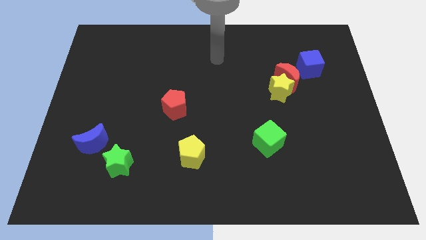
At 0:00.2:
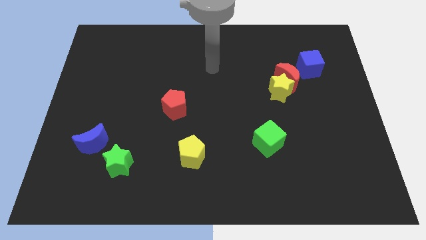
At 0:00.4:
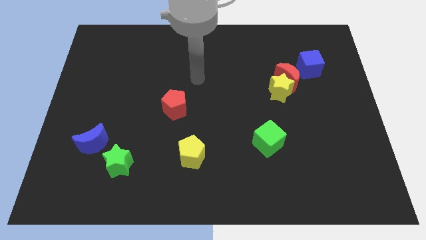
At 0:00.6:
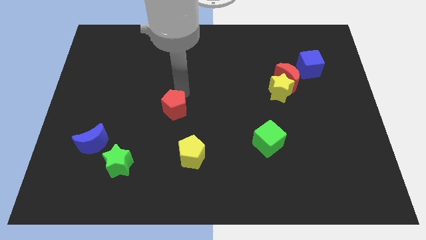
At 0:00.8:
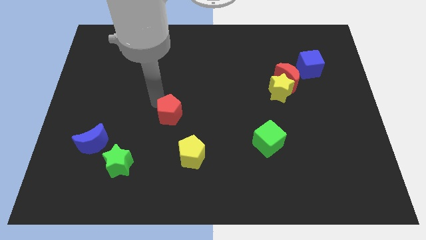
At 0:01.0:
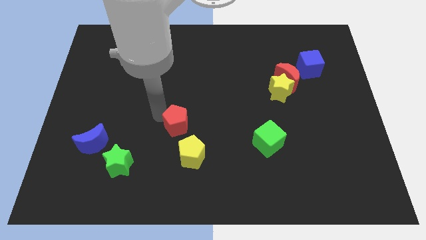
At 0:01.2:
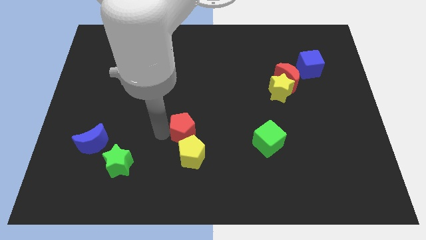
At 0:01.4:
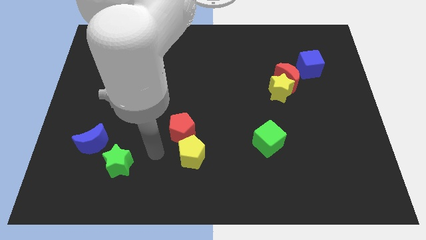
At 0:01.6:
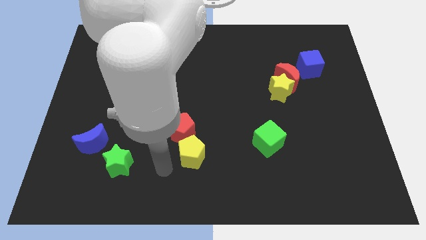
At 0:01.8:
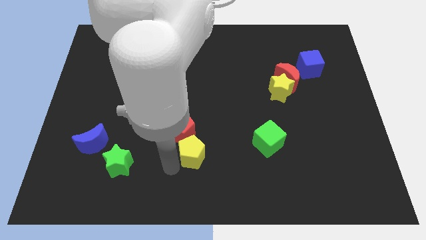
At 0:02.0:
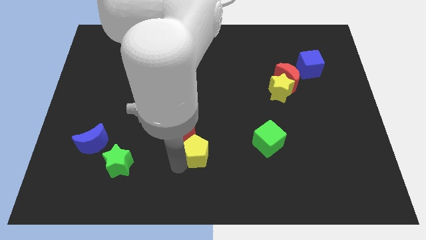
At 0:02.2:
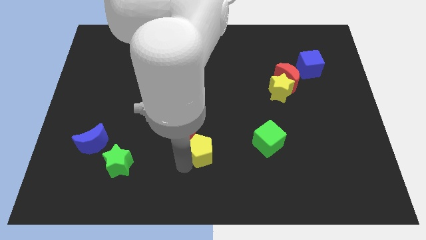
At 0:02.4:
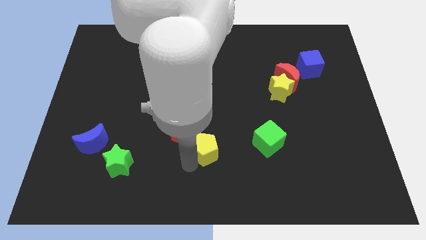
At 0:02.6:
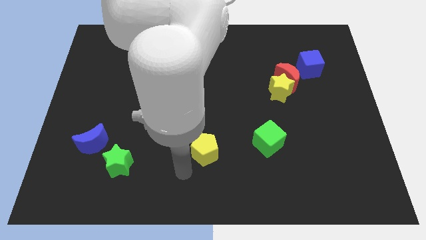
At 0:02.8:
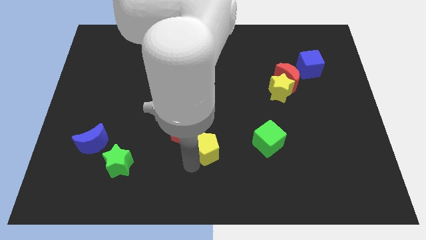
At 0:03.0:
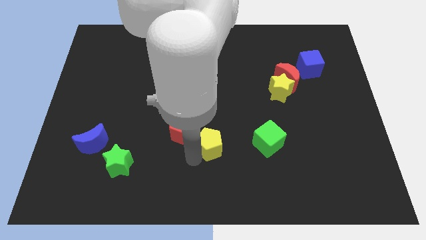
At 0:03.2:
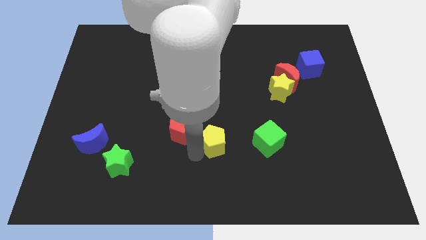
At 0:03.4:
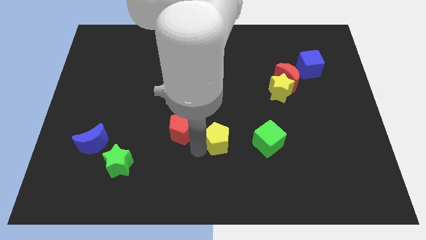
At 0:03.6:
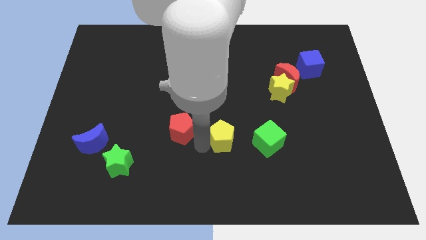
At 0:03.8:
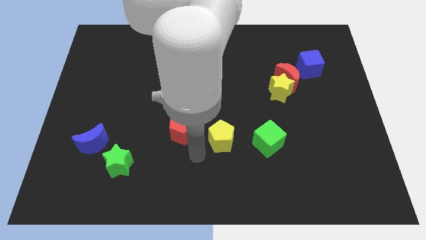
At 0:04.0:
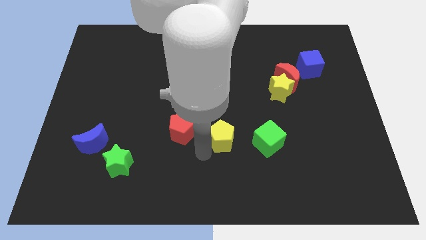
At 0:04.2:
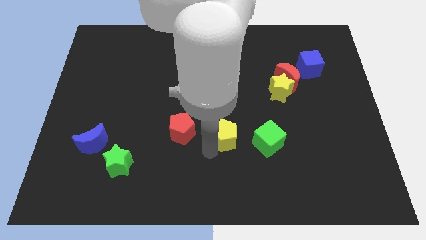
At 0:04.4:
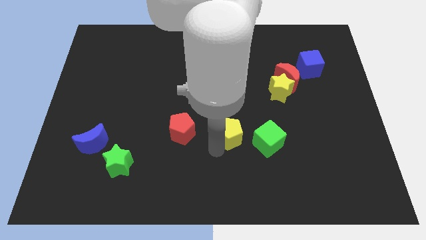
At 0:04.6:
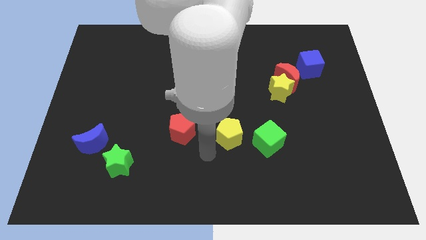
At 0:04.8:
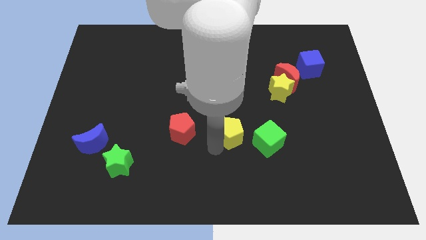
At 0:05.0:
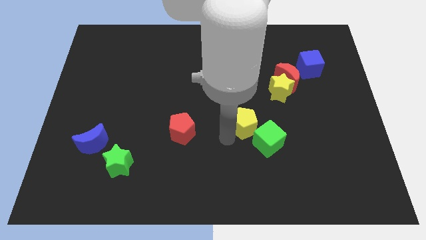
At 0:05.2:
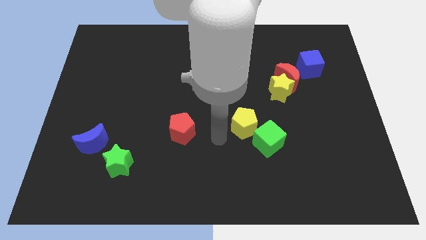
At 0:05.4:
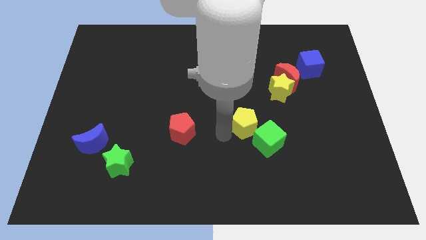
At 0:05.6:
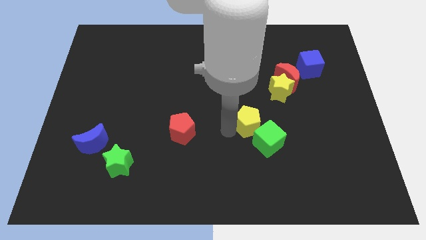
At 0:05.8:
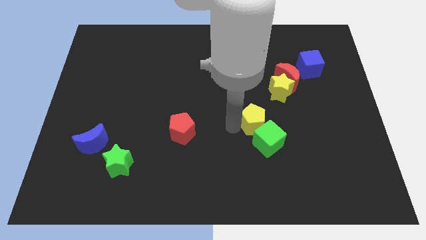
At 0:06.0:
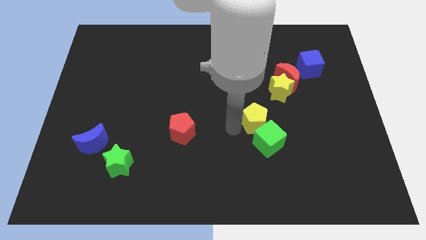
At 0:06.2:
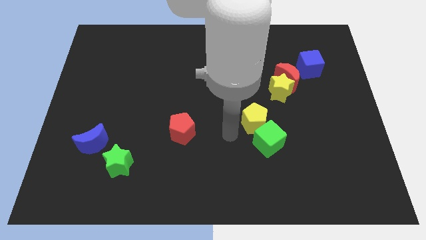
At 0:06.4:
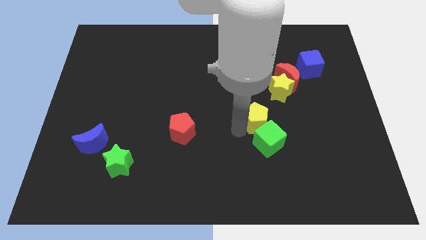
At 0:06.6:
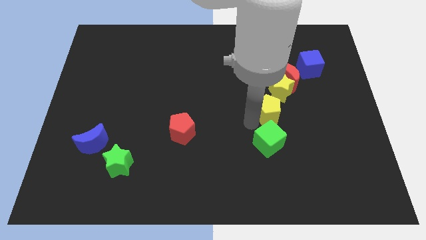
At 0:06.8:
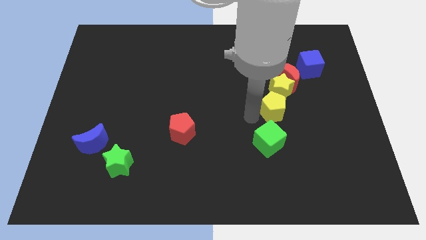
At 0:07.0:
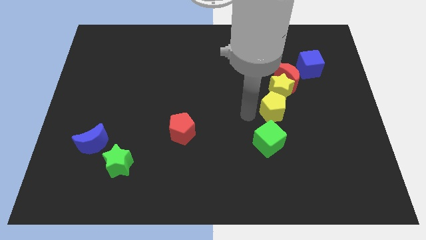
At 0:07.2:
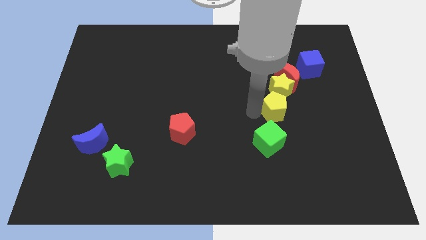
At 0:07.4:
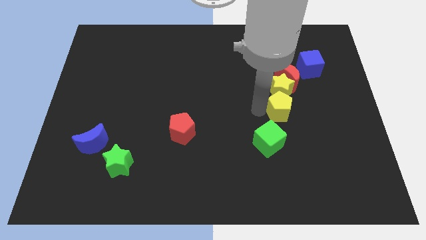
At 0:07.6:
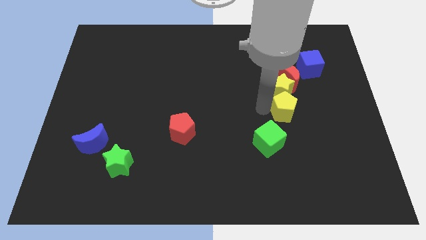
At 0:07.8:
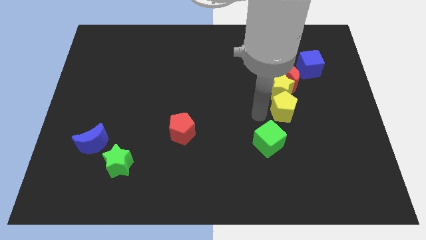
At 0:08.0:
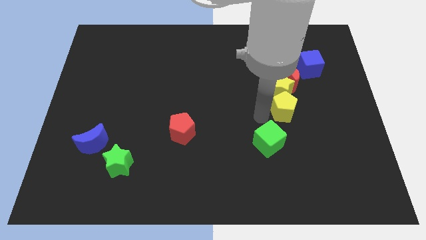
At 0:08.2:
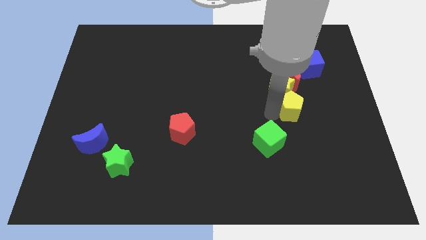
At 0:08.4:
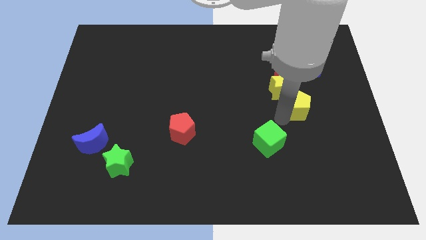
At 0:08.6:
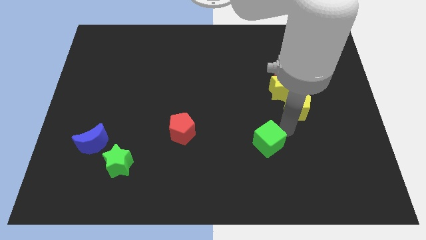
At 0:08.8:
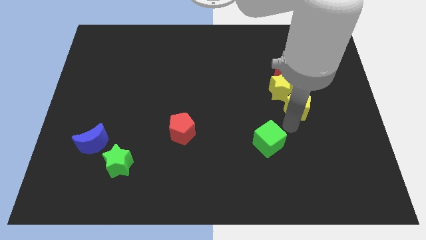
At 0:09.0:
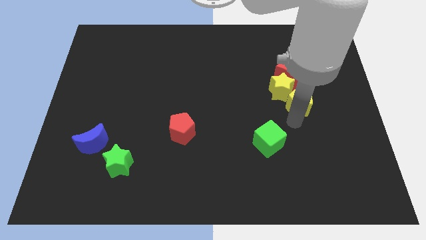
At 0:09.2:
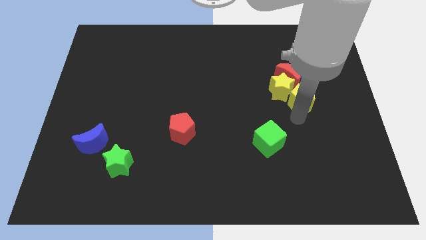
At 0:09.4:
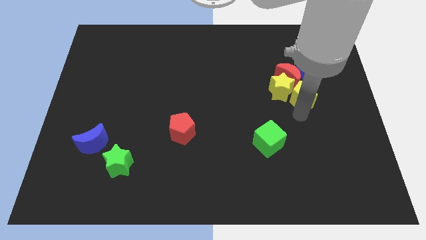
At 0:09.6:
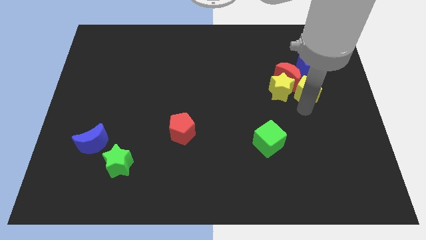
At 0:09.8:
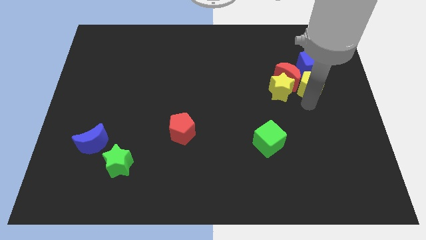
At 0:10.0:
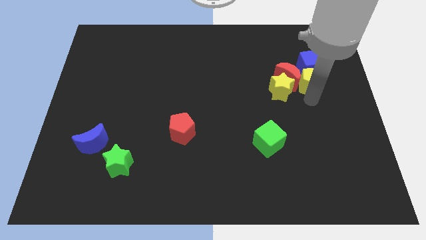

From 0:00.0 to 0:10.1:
put the yellow pentagon to the blue cube

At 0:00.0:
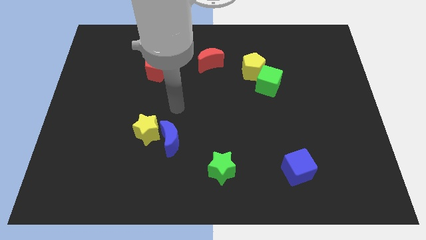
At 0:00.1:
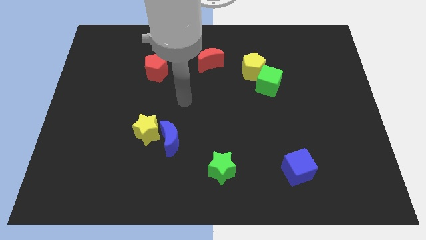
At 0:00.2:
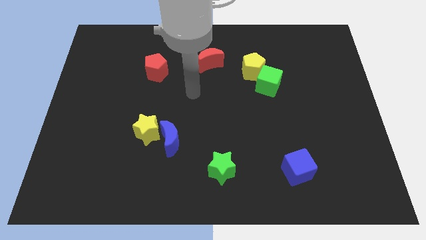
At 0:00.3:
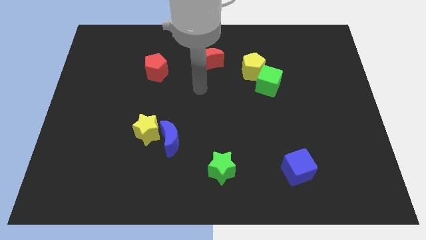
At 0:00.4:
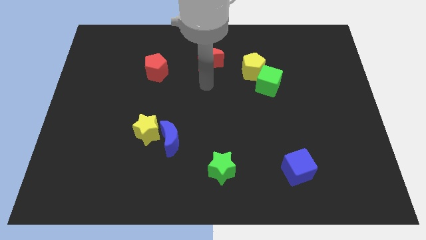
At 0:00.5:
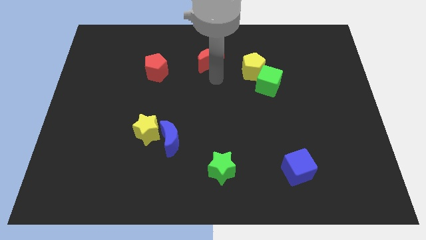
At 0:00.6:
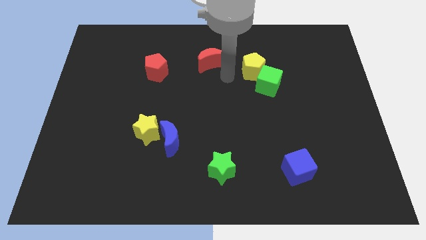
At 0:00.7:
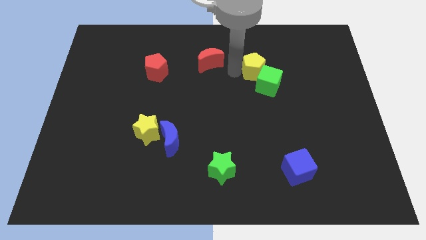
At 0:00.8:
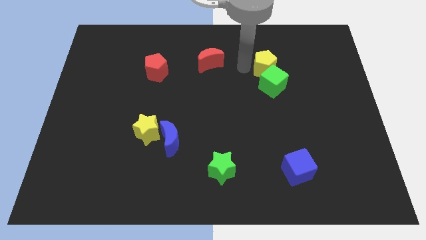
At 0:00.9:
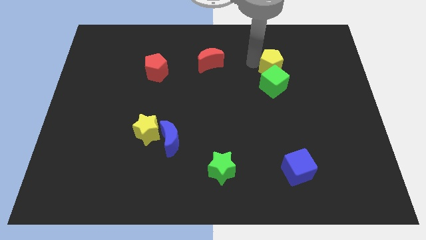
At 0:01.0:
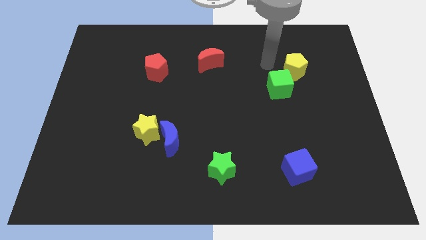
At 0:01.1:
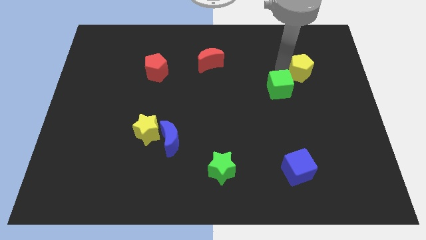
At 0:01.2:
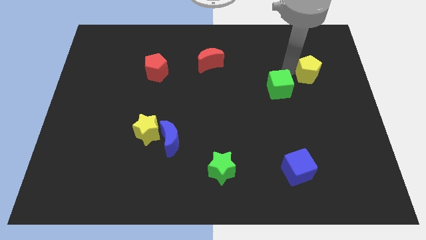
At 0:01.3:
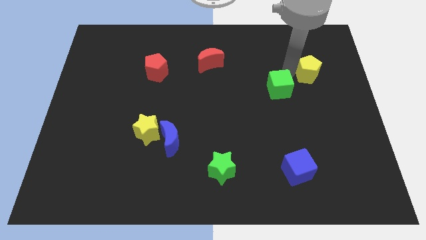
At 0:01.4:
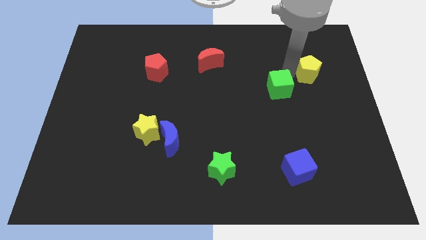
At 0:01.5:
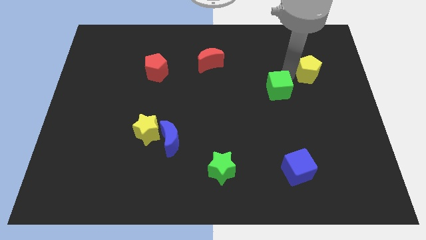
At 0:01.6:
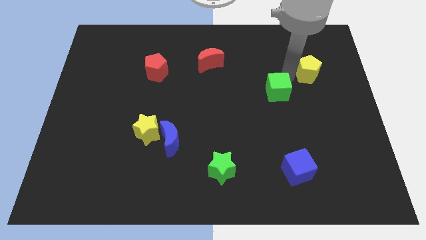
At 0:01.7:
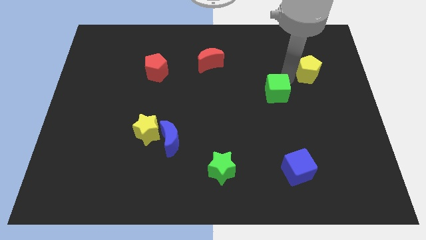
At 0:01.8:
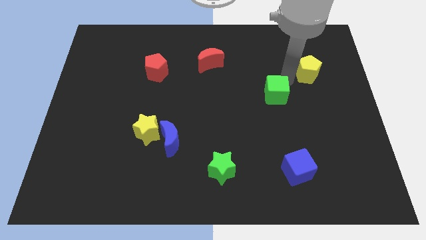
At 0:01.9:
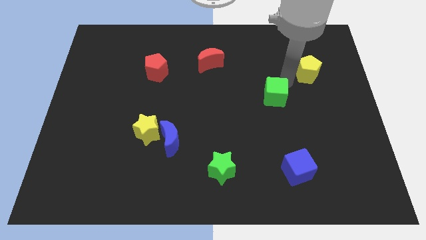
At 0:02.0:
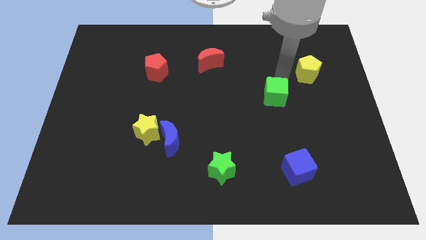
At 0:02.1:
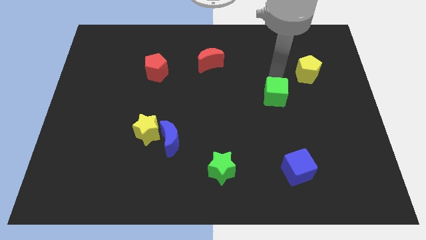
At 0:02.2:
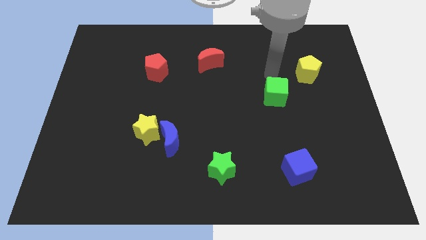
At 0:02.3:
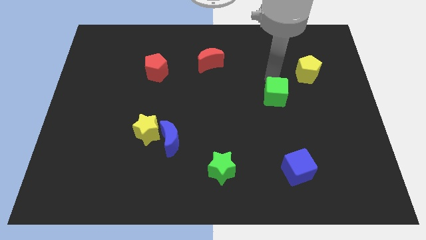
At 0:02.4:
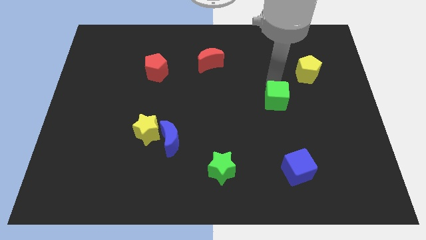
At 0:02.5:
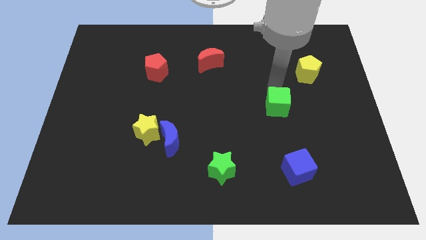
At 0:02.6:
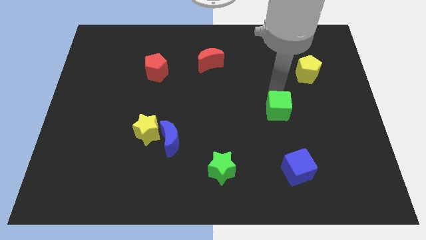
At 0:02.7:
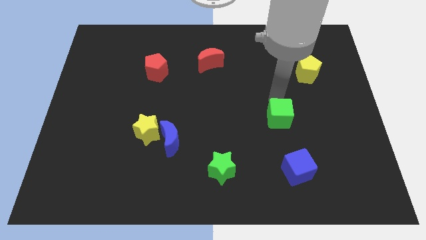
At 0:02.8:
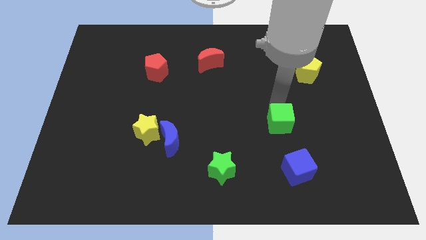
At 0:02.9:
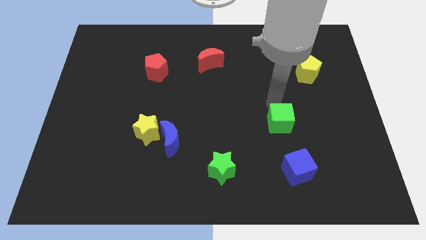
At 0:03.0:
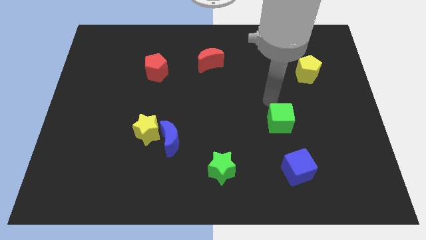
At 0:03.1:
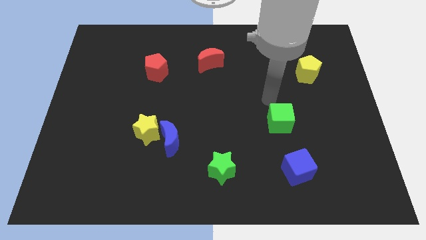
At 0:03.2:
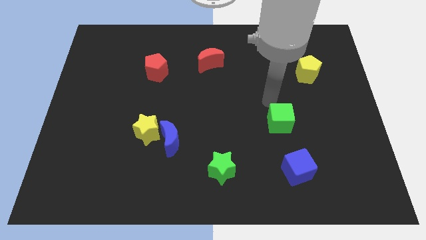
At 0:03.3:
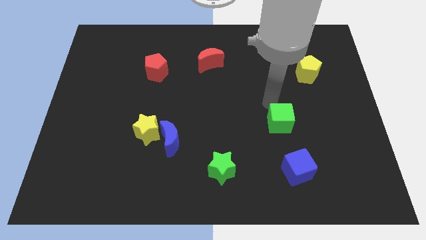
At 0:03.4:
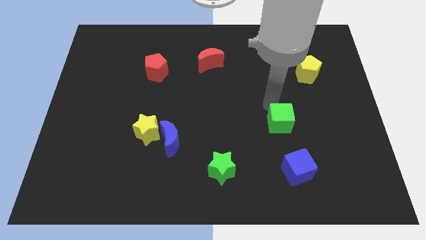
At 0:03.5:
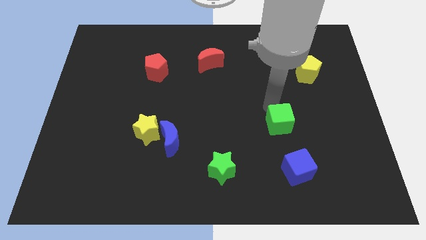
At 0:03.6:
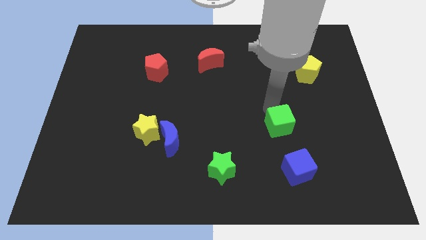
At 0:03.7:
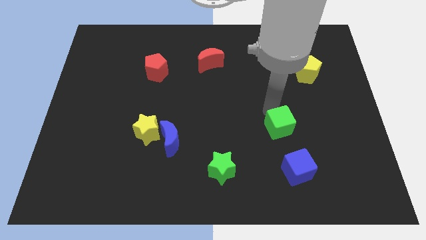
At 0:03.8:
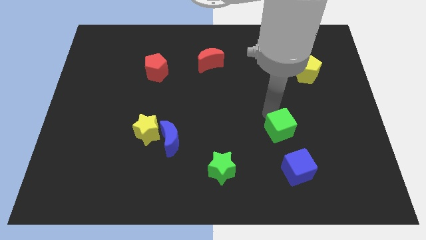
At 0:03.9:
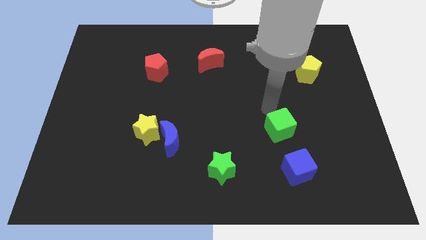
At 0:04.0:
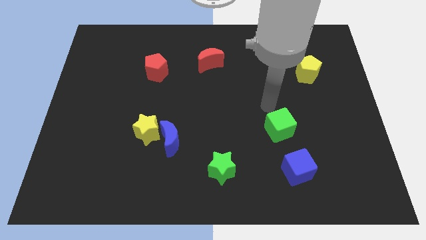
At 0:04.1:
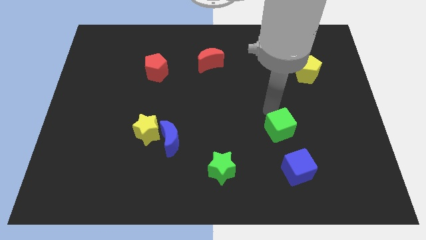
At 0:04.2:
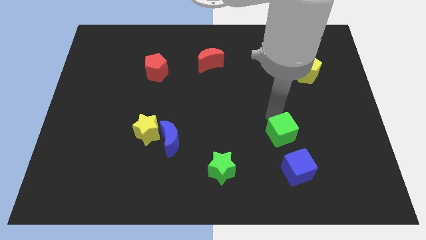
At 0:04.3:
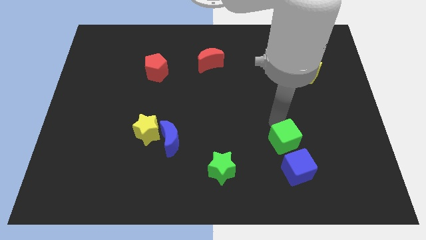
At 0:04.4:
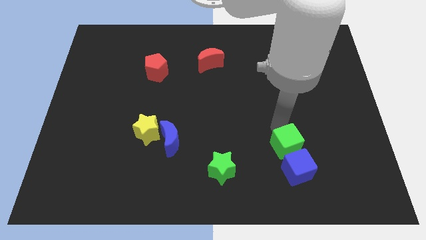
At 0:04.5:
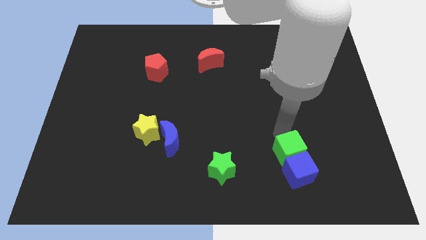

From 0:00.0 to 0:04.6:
push the green cube towards the blue cube
